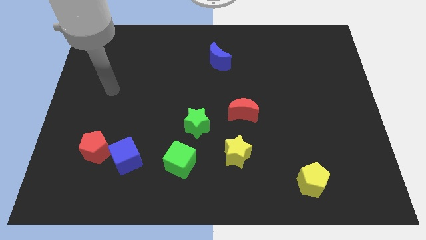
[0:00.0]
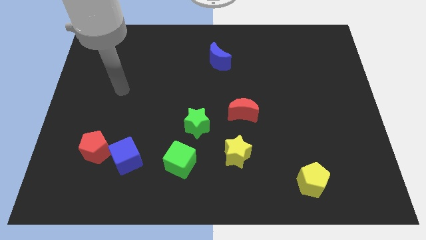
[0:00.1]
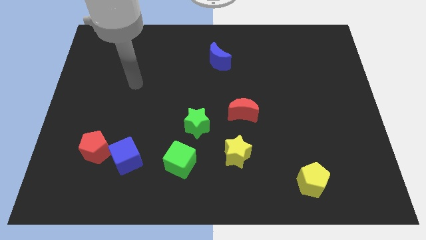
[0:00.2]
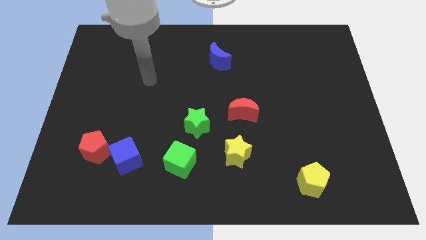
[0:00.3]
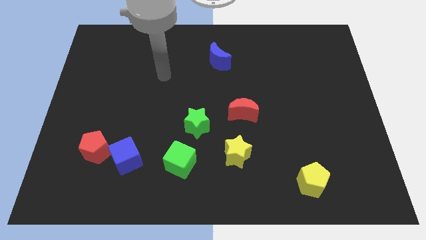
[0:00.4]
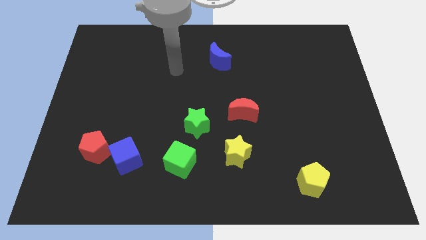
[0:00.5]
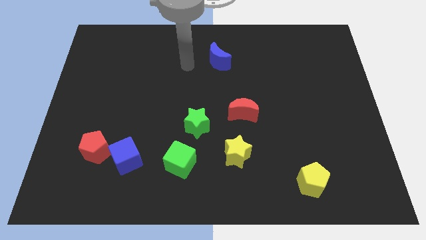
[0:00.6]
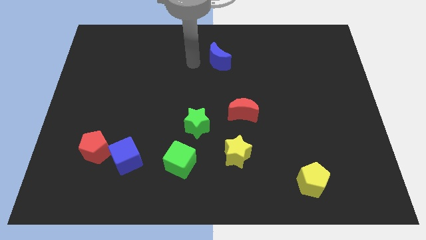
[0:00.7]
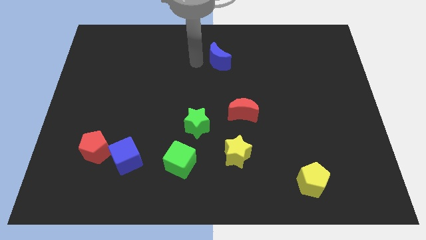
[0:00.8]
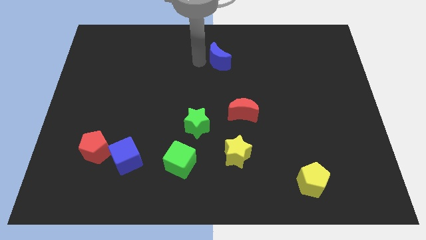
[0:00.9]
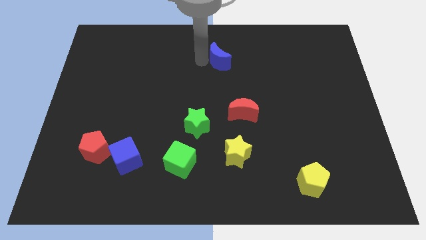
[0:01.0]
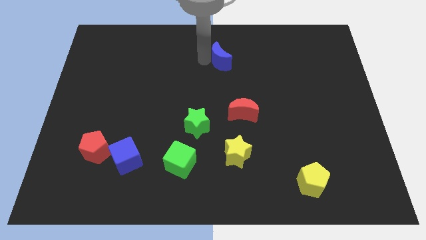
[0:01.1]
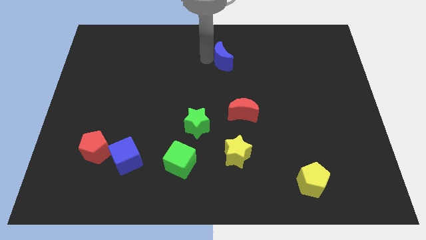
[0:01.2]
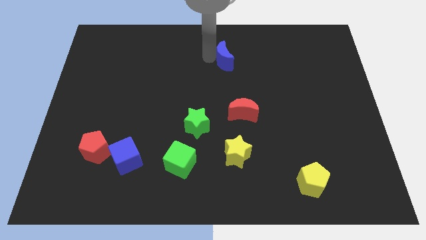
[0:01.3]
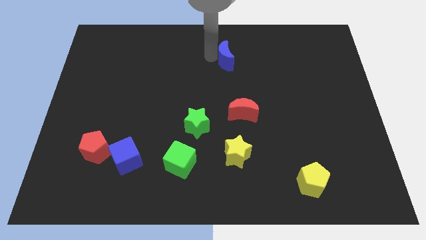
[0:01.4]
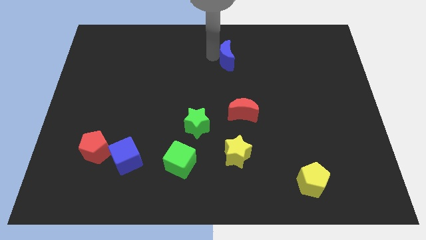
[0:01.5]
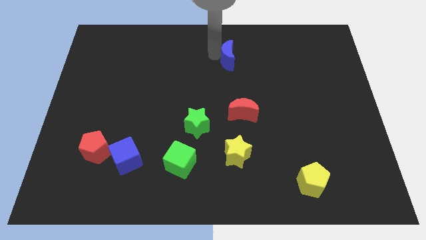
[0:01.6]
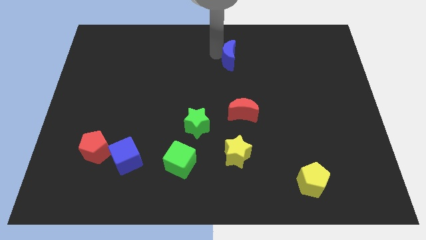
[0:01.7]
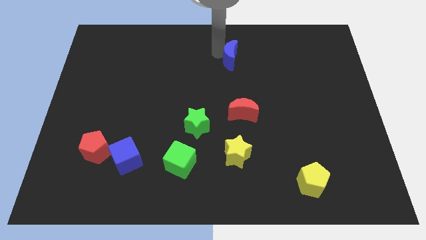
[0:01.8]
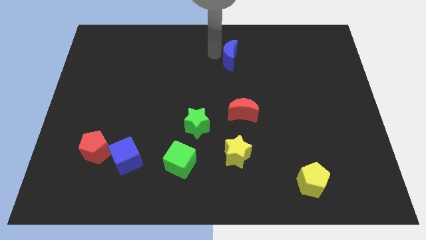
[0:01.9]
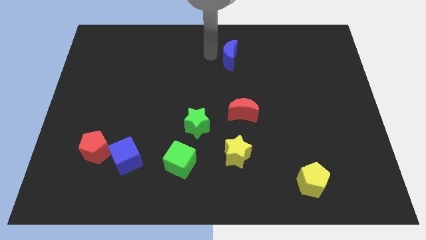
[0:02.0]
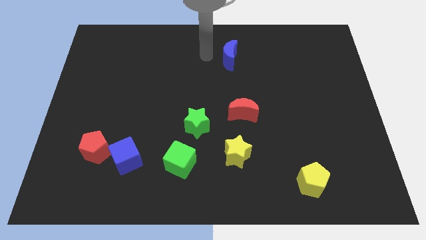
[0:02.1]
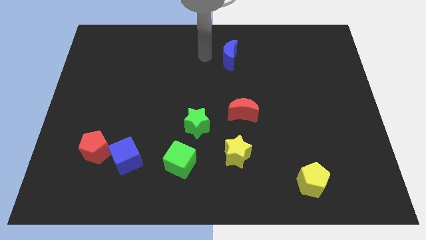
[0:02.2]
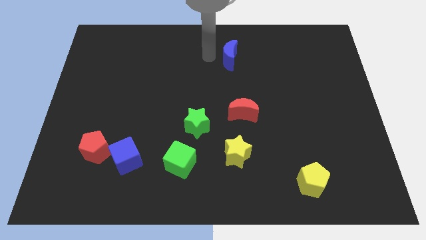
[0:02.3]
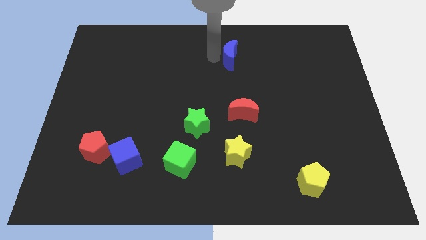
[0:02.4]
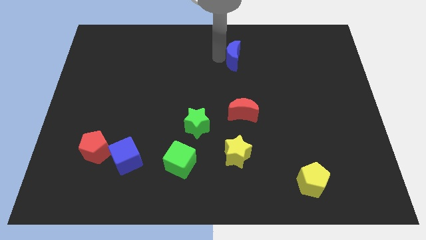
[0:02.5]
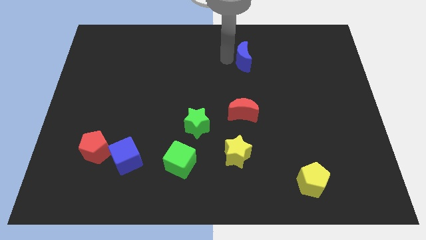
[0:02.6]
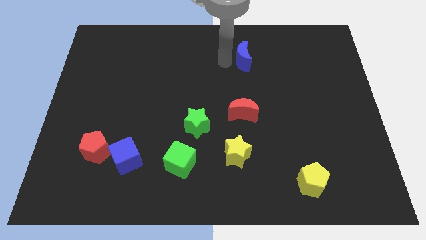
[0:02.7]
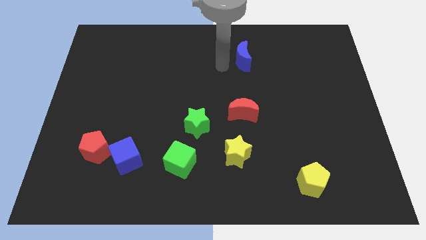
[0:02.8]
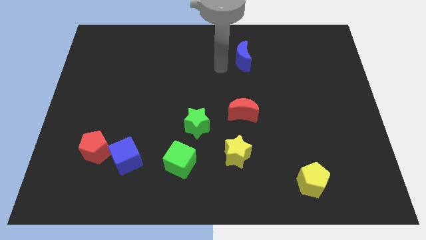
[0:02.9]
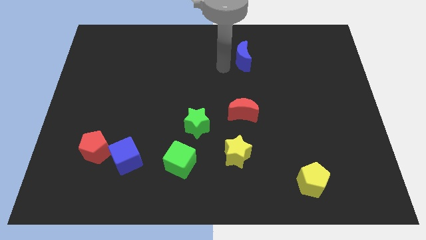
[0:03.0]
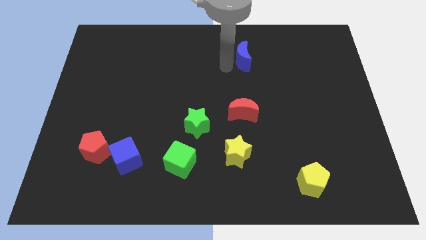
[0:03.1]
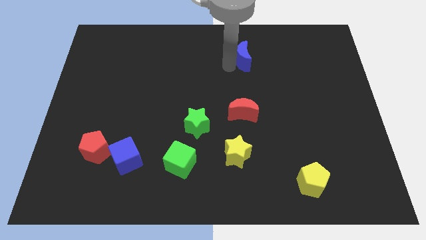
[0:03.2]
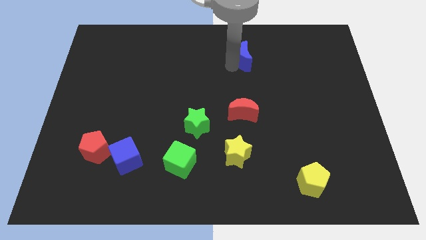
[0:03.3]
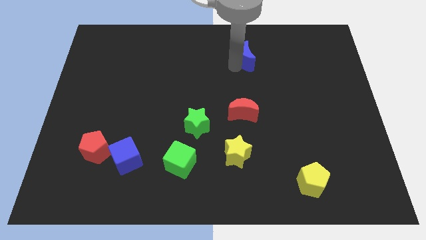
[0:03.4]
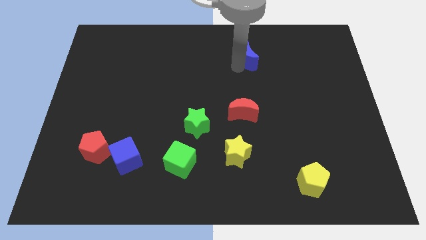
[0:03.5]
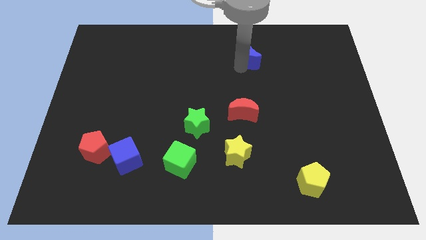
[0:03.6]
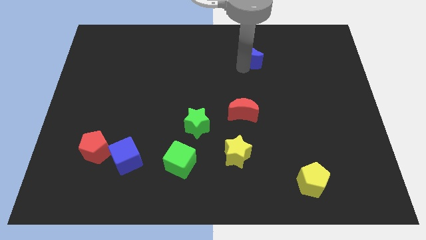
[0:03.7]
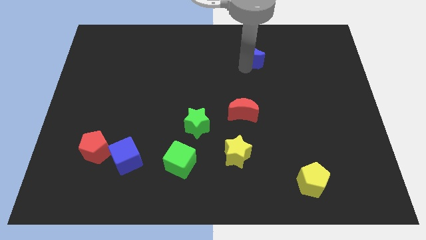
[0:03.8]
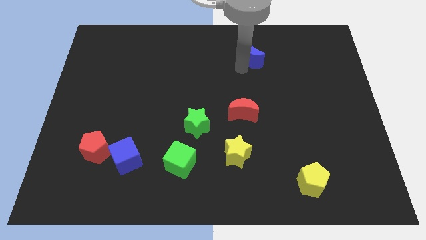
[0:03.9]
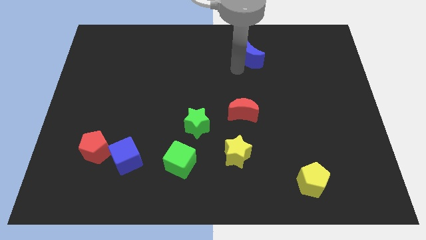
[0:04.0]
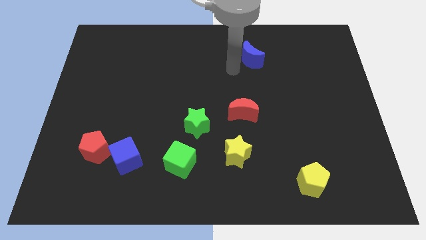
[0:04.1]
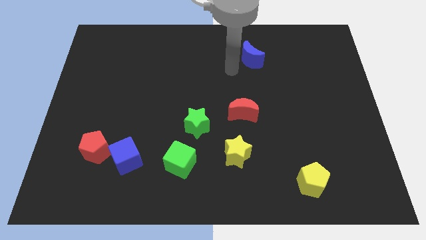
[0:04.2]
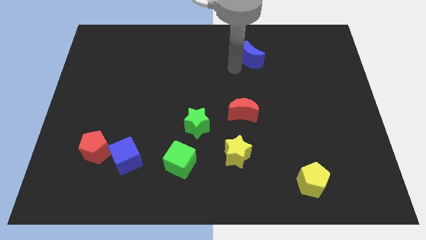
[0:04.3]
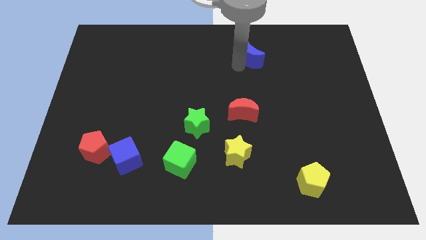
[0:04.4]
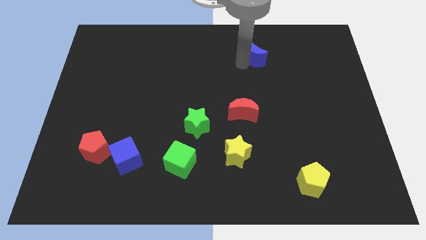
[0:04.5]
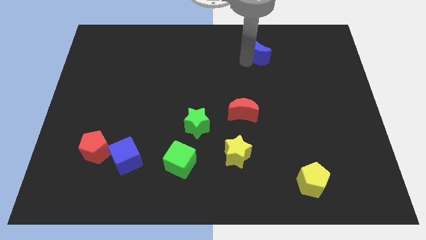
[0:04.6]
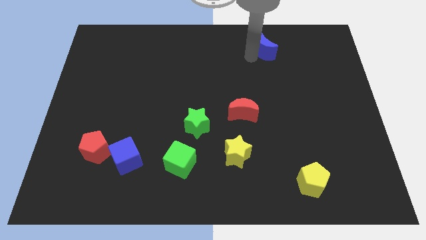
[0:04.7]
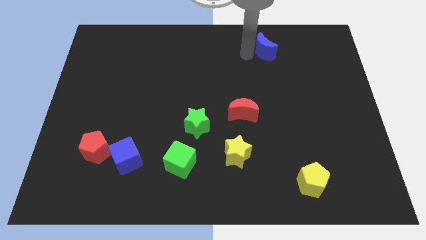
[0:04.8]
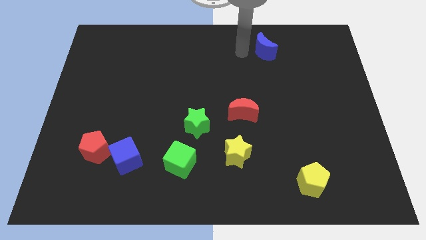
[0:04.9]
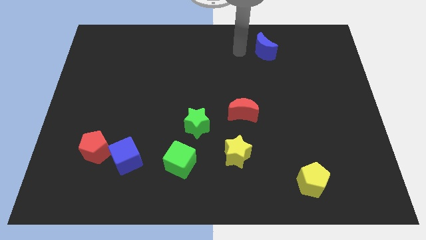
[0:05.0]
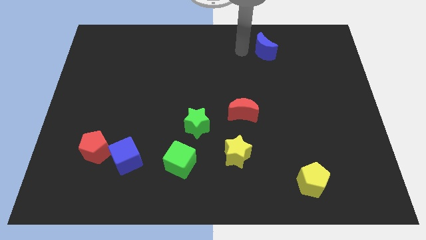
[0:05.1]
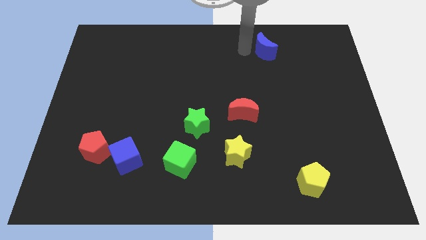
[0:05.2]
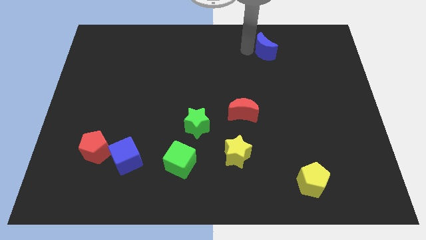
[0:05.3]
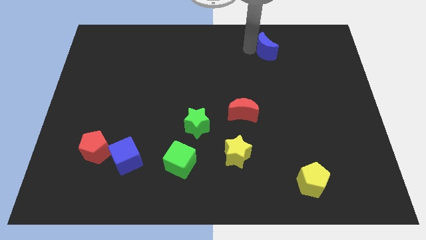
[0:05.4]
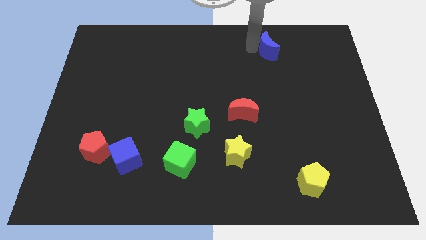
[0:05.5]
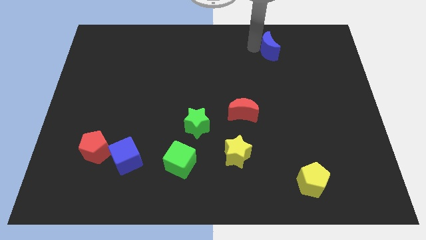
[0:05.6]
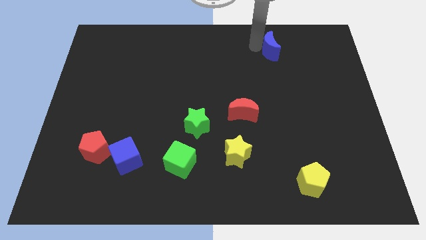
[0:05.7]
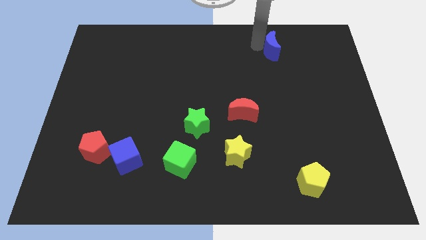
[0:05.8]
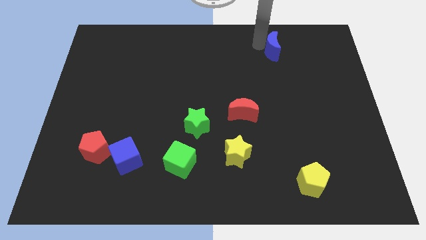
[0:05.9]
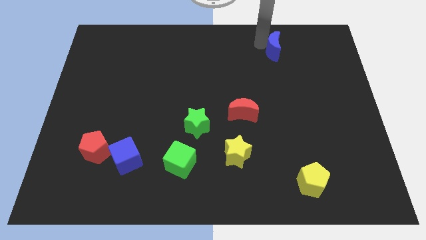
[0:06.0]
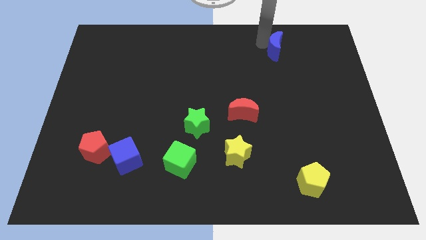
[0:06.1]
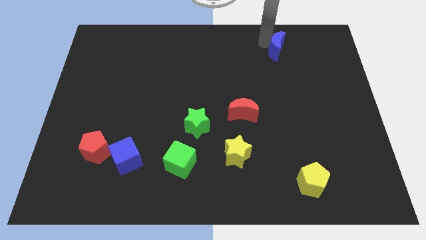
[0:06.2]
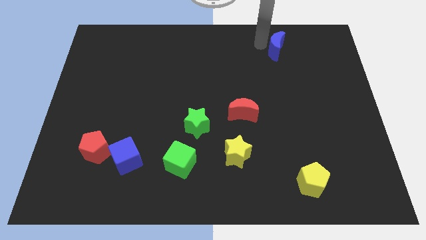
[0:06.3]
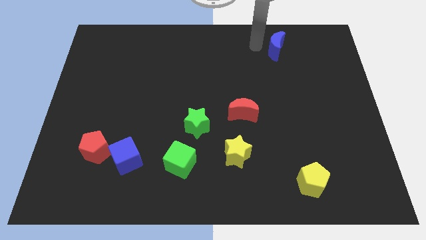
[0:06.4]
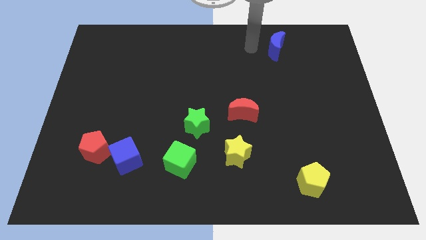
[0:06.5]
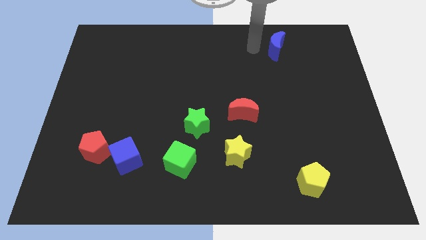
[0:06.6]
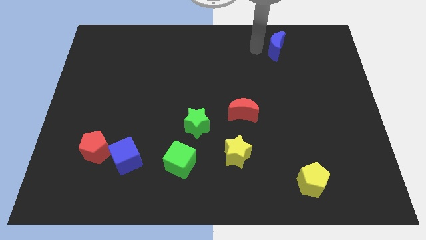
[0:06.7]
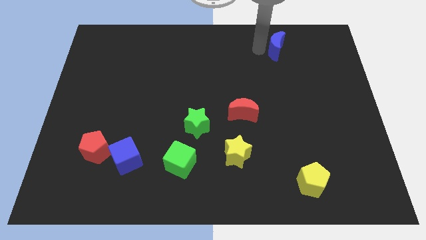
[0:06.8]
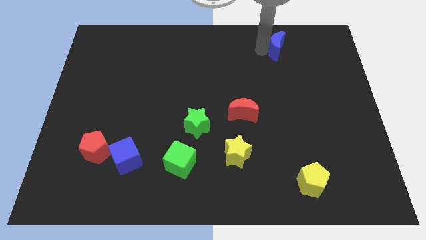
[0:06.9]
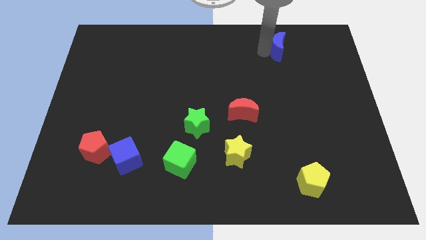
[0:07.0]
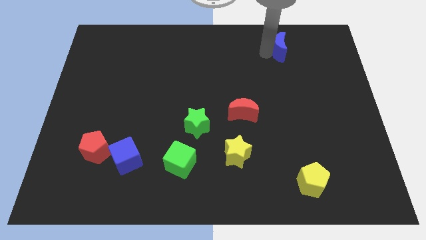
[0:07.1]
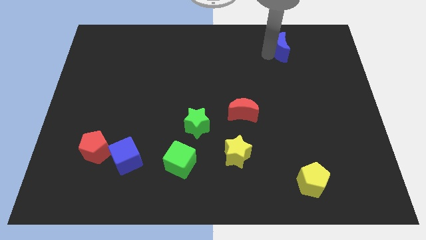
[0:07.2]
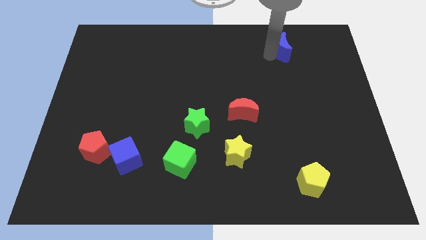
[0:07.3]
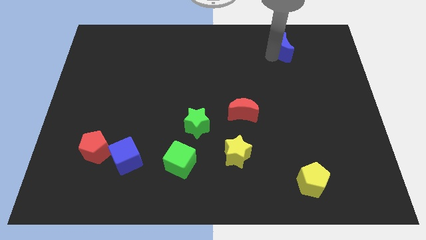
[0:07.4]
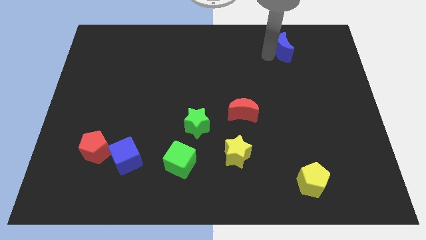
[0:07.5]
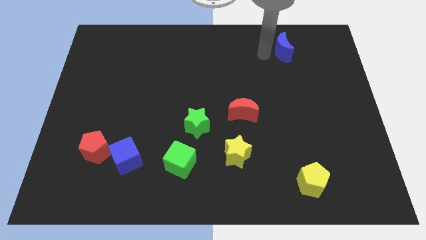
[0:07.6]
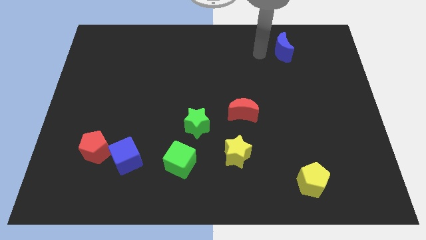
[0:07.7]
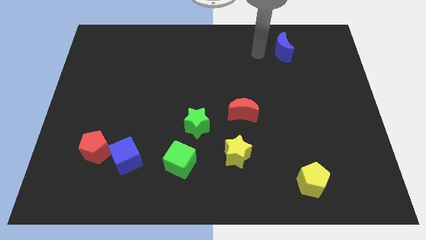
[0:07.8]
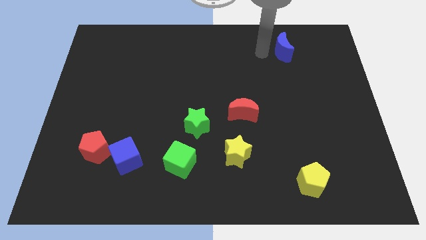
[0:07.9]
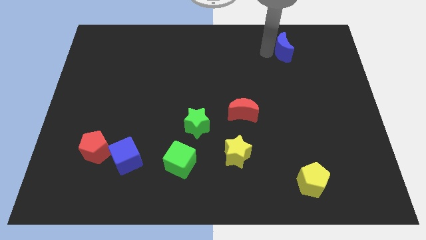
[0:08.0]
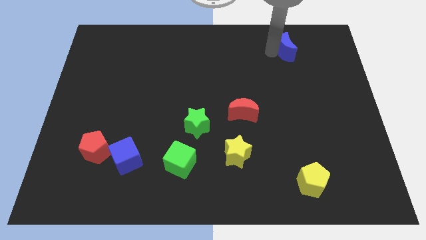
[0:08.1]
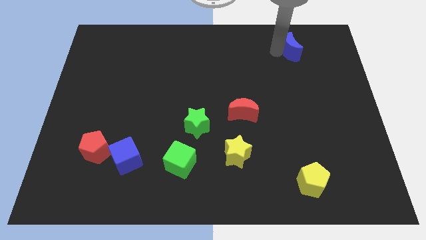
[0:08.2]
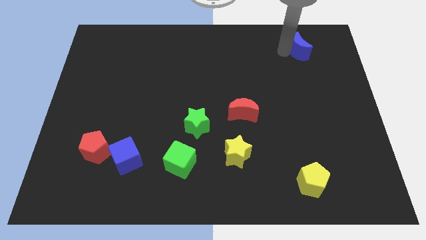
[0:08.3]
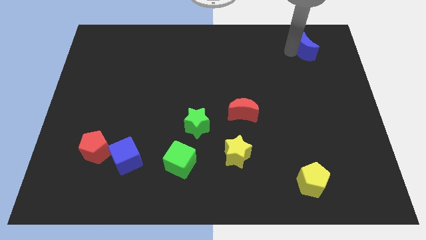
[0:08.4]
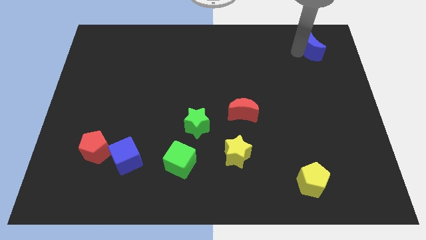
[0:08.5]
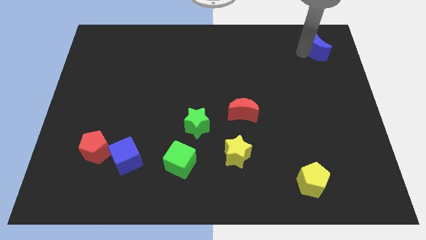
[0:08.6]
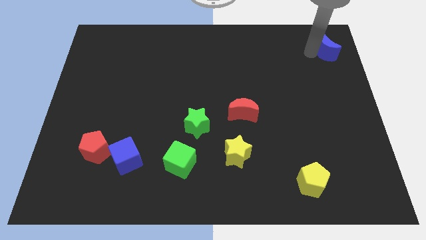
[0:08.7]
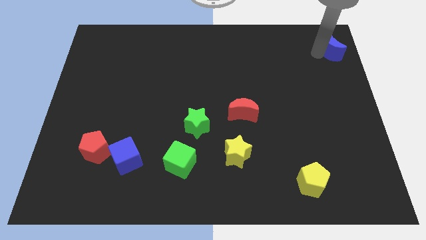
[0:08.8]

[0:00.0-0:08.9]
move the blue moon to the top right of the board
